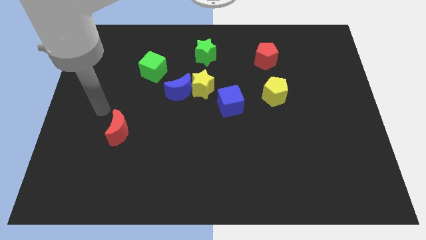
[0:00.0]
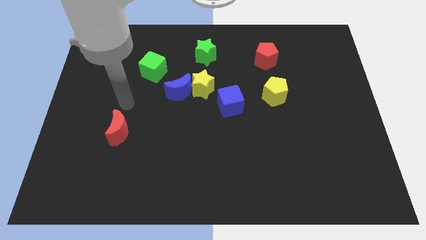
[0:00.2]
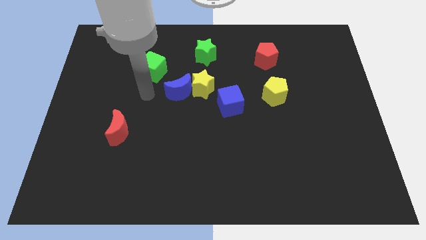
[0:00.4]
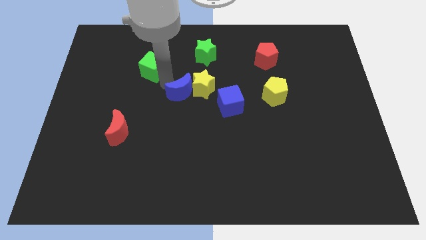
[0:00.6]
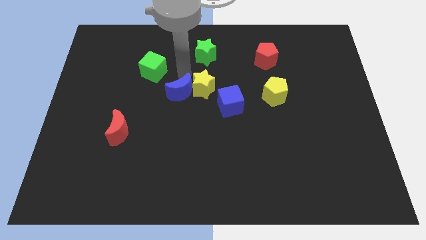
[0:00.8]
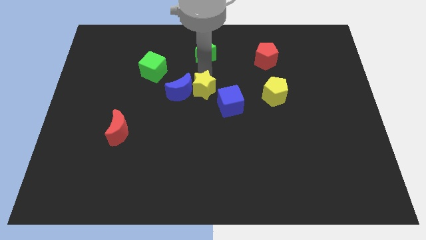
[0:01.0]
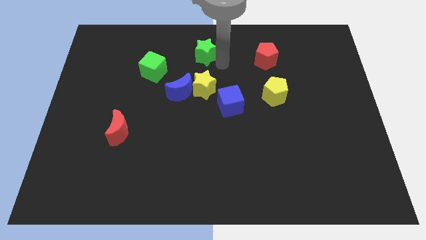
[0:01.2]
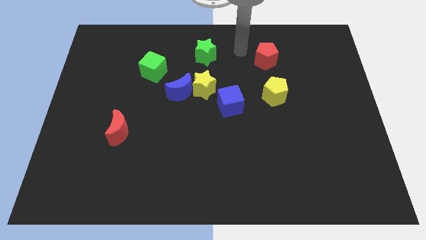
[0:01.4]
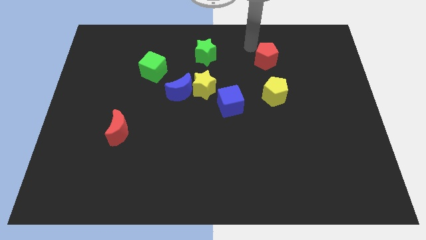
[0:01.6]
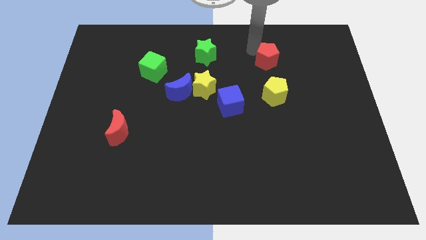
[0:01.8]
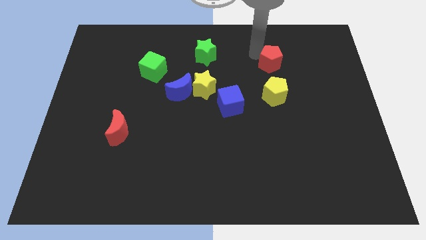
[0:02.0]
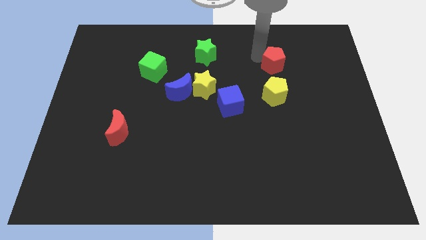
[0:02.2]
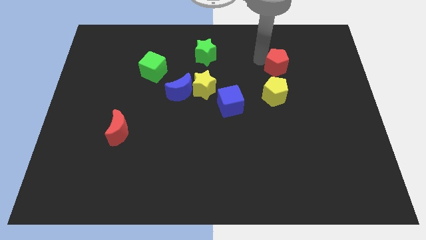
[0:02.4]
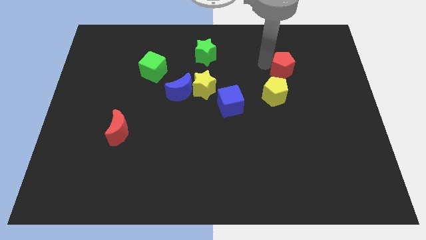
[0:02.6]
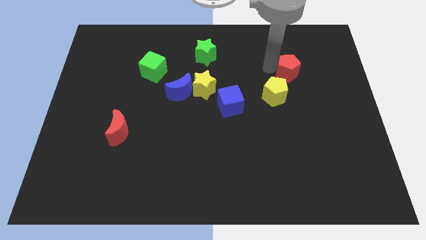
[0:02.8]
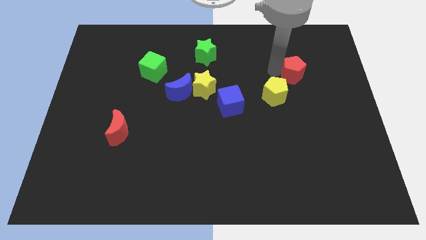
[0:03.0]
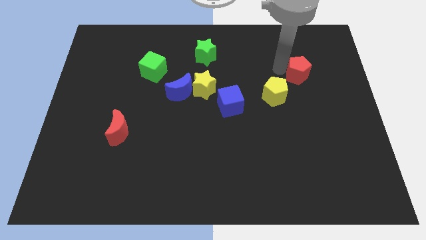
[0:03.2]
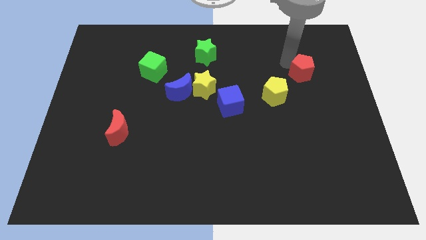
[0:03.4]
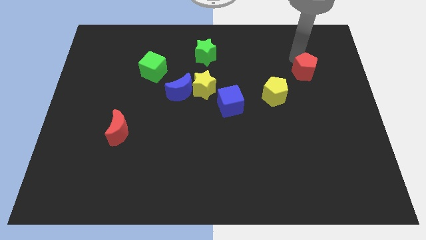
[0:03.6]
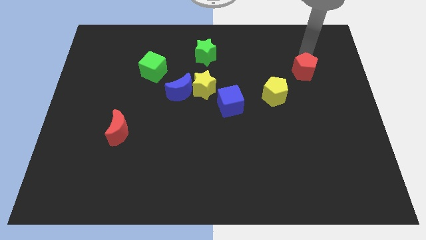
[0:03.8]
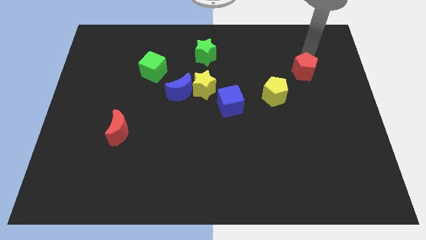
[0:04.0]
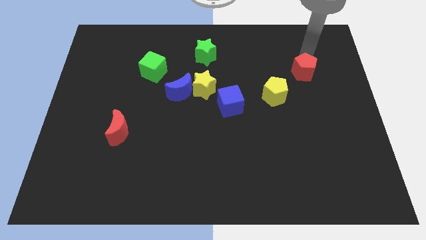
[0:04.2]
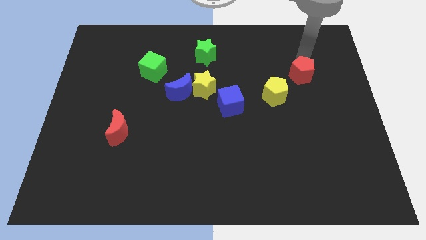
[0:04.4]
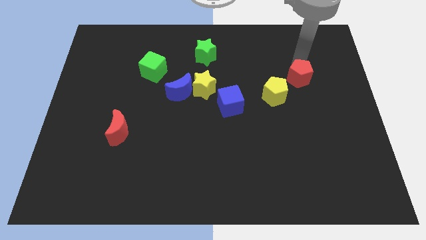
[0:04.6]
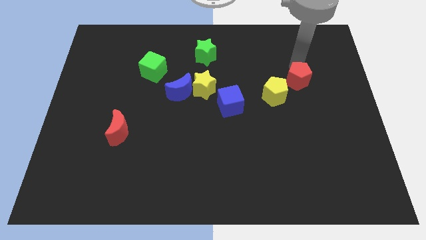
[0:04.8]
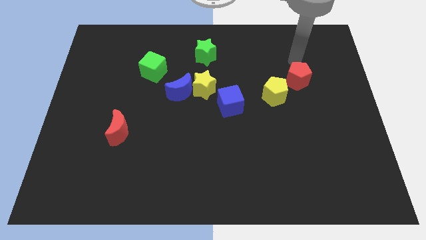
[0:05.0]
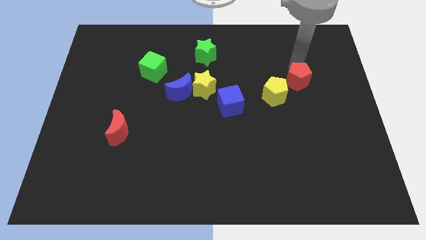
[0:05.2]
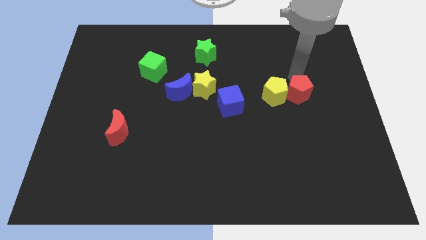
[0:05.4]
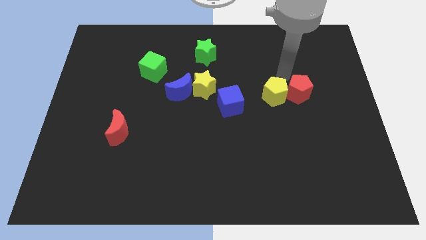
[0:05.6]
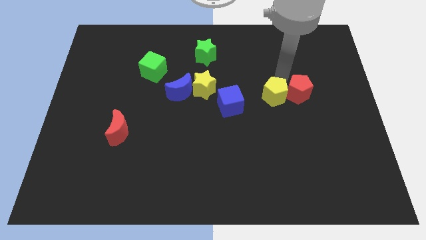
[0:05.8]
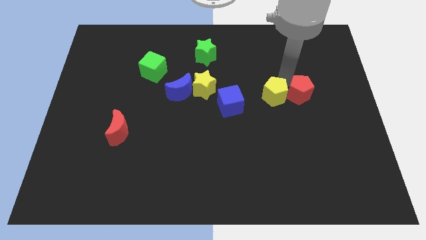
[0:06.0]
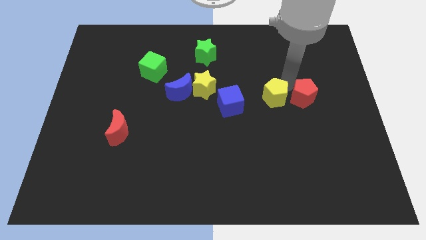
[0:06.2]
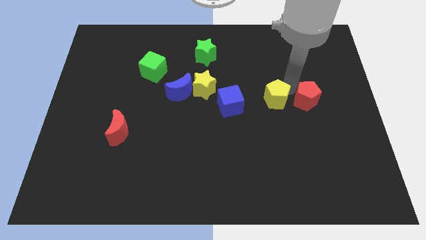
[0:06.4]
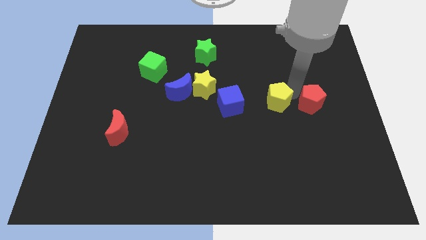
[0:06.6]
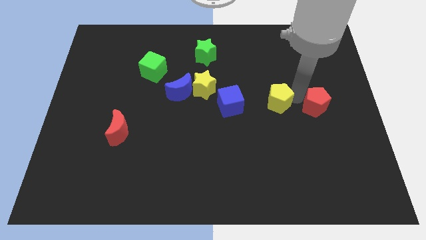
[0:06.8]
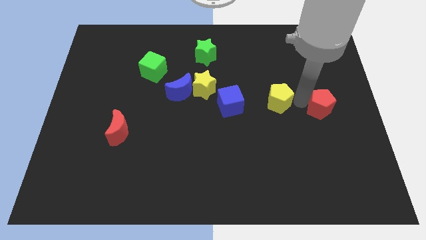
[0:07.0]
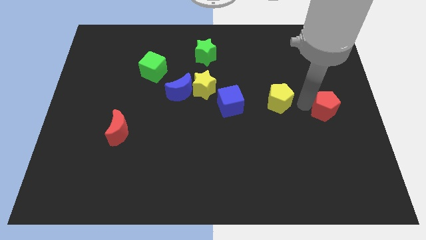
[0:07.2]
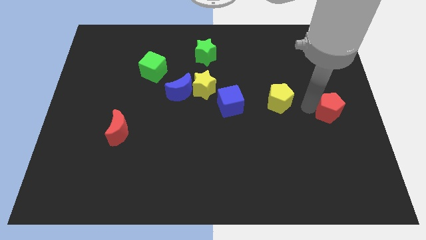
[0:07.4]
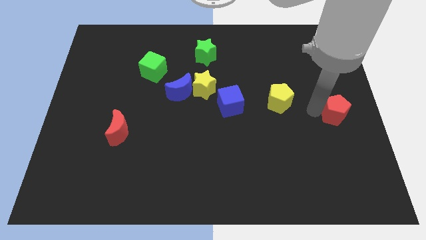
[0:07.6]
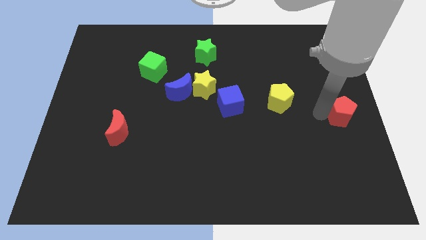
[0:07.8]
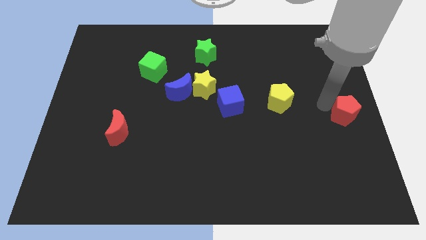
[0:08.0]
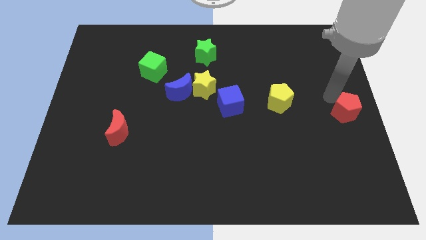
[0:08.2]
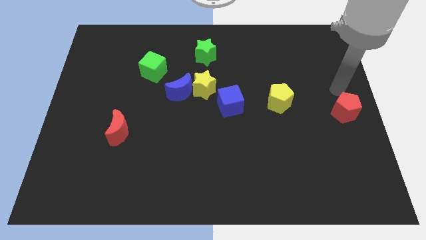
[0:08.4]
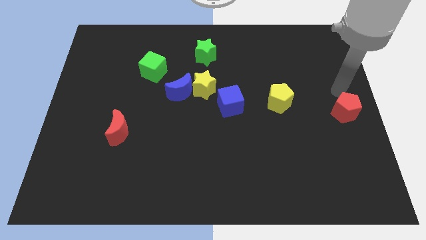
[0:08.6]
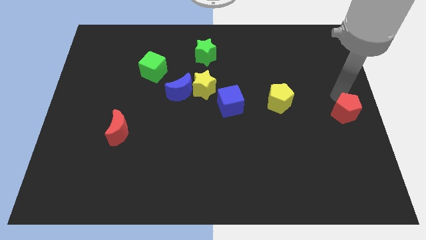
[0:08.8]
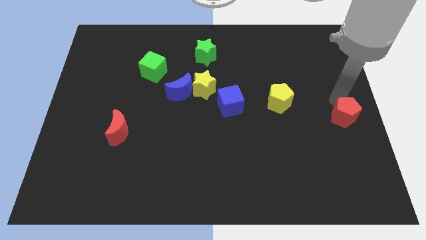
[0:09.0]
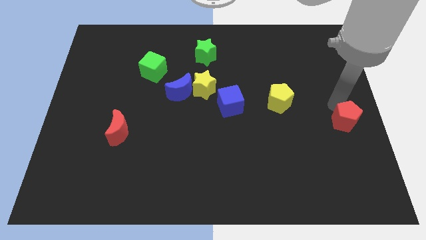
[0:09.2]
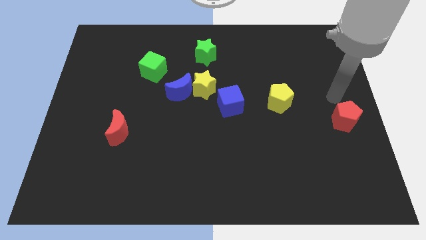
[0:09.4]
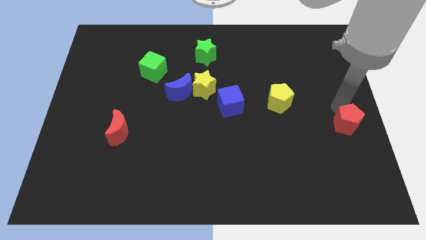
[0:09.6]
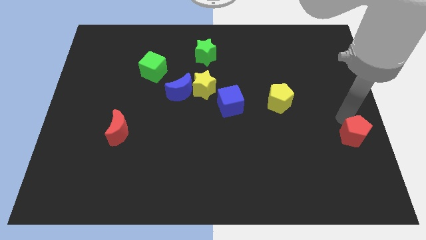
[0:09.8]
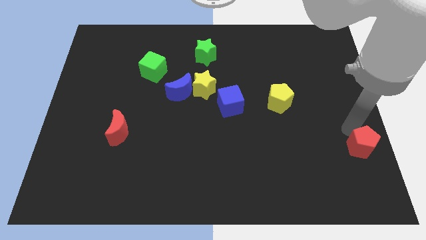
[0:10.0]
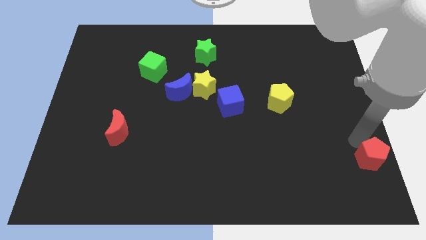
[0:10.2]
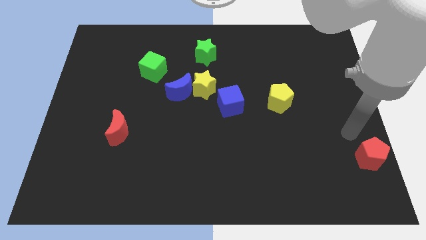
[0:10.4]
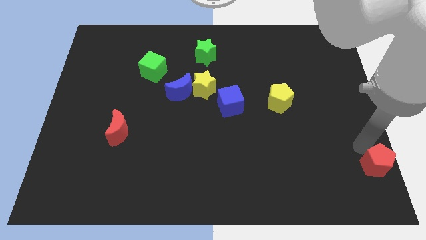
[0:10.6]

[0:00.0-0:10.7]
put the red pentagon to the bottom right corner

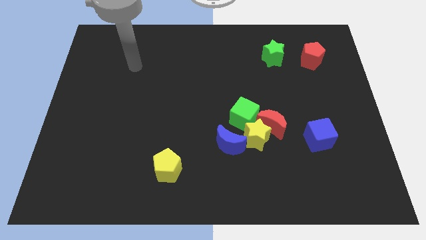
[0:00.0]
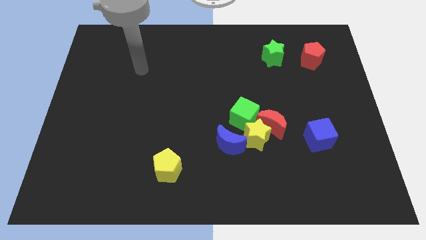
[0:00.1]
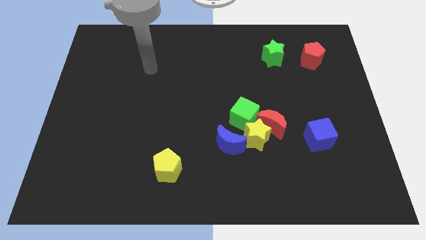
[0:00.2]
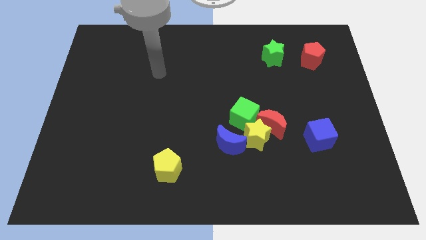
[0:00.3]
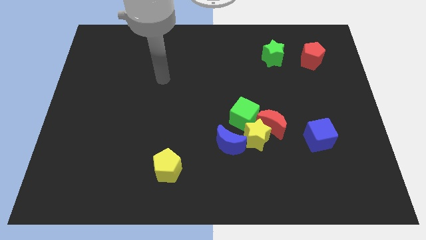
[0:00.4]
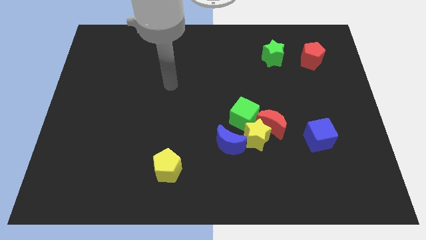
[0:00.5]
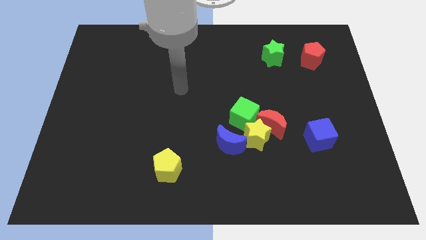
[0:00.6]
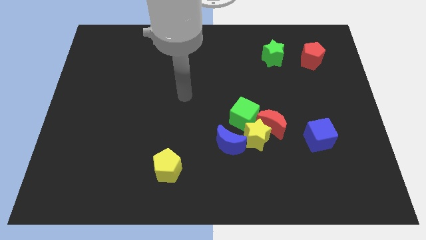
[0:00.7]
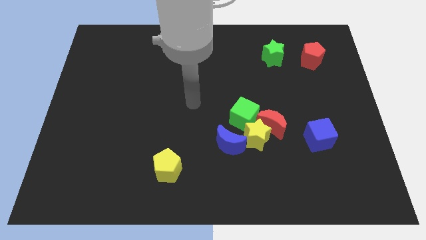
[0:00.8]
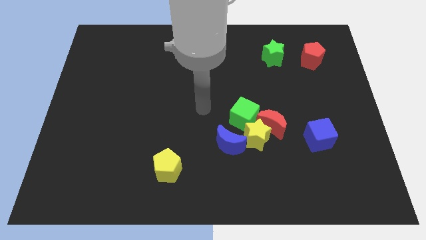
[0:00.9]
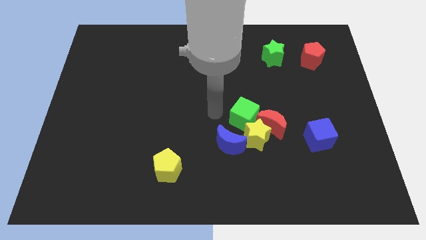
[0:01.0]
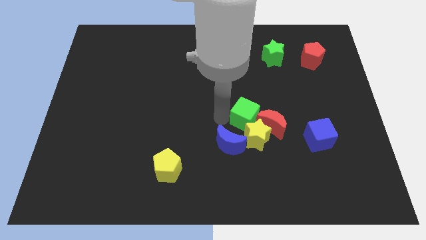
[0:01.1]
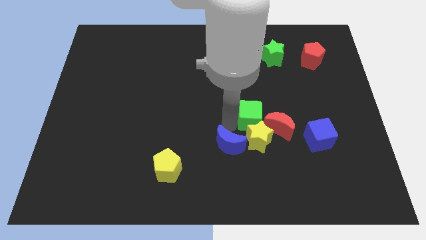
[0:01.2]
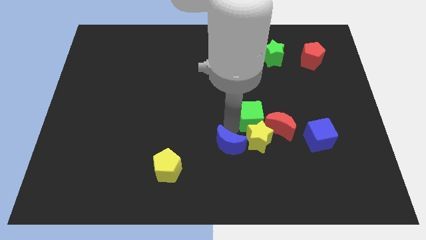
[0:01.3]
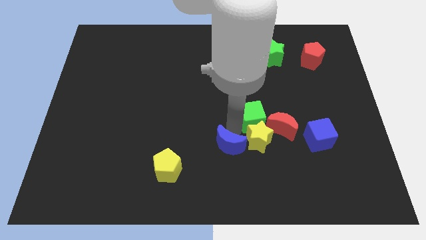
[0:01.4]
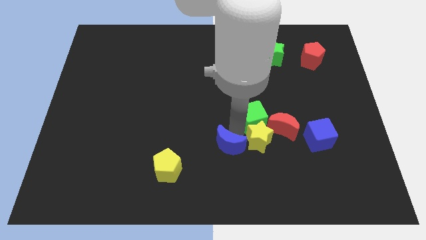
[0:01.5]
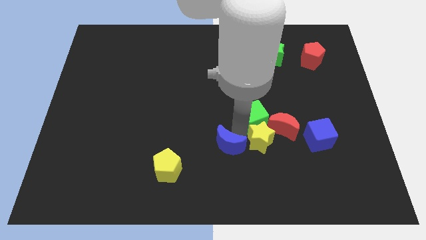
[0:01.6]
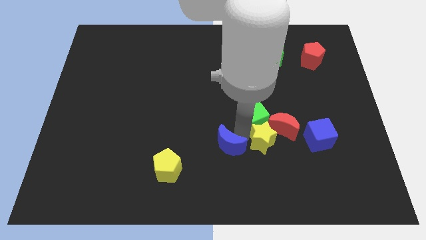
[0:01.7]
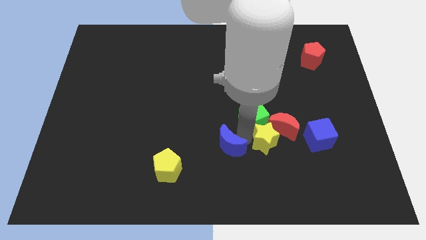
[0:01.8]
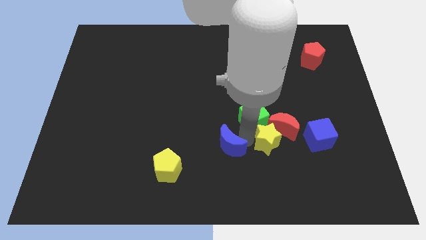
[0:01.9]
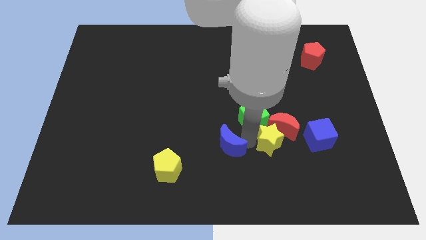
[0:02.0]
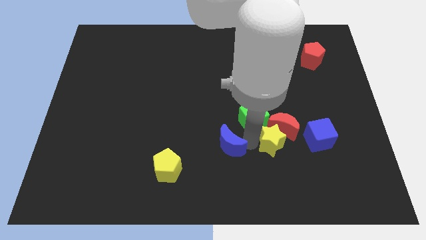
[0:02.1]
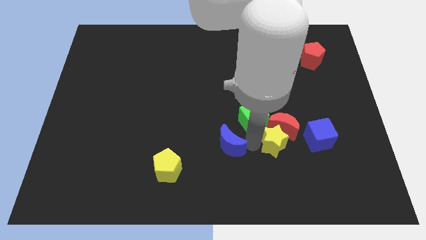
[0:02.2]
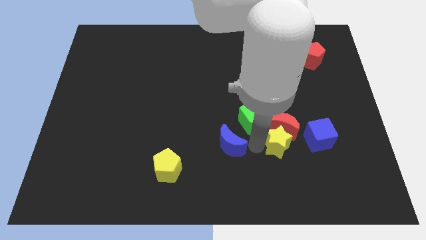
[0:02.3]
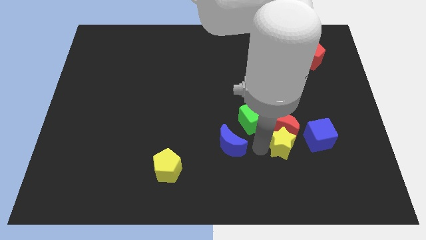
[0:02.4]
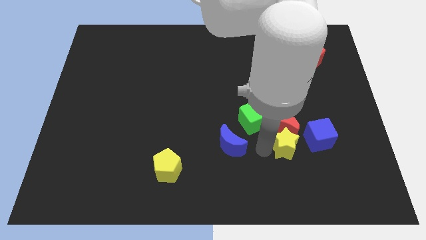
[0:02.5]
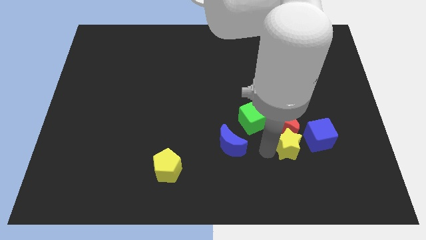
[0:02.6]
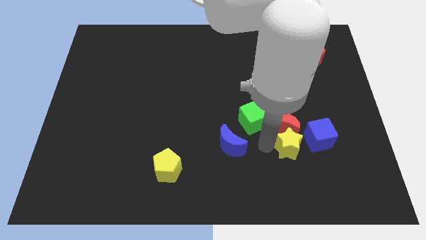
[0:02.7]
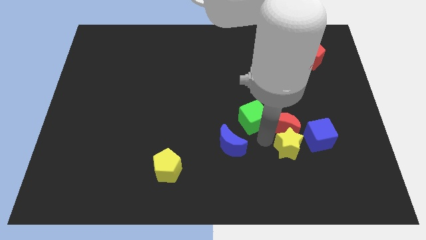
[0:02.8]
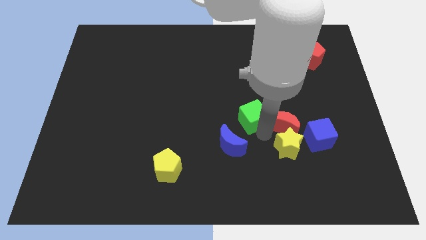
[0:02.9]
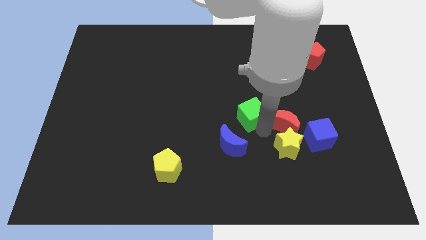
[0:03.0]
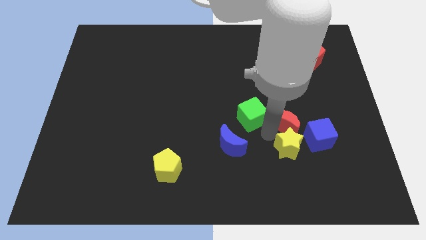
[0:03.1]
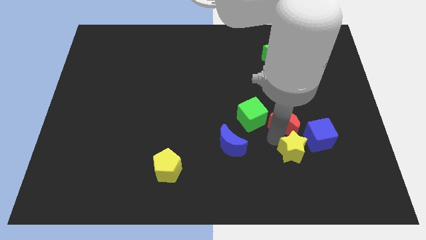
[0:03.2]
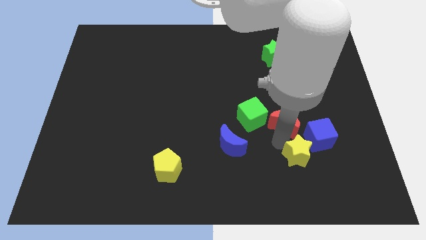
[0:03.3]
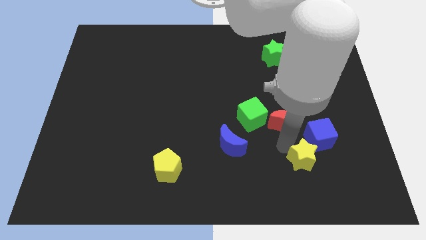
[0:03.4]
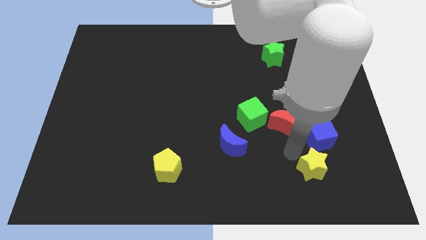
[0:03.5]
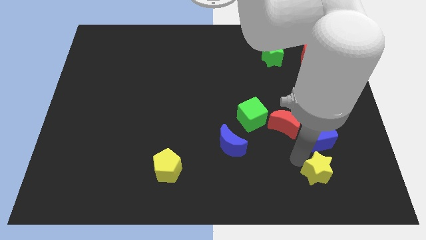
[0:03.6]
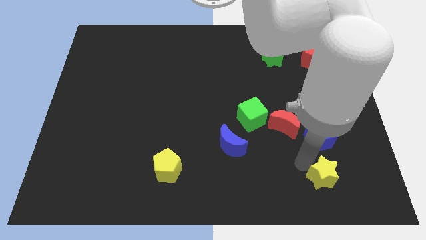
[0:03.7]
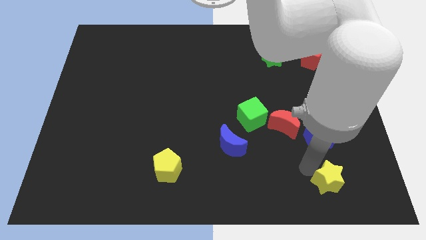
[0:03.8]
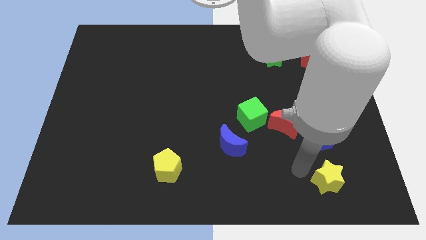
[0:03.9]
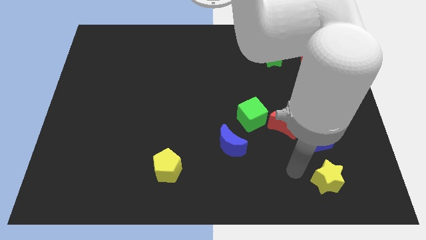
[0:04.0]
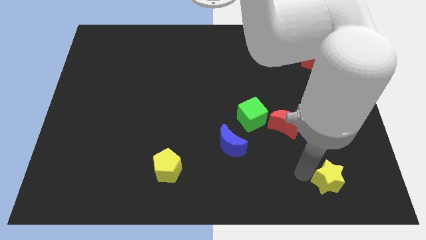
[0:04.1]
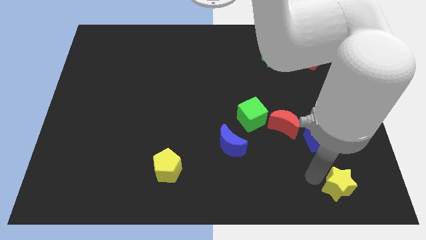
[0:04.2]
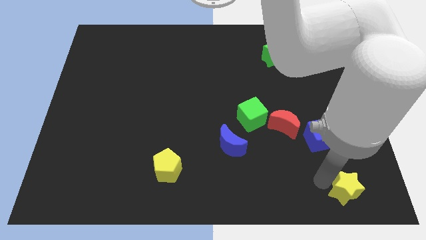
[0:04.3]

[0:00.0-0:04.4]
push the yellow star to the bottom right
